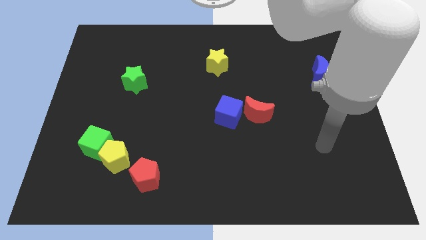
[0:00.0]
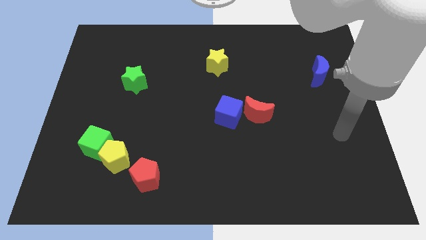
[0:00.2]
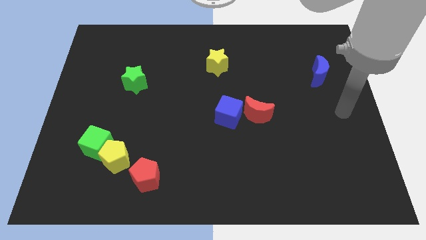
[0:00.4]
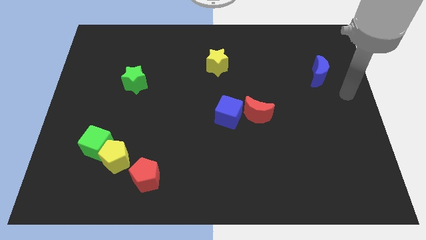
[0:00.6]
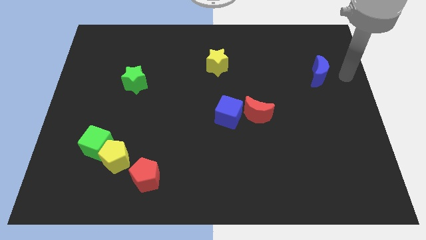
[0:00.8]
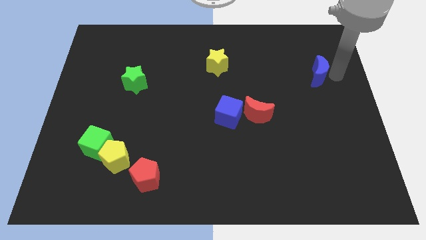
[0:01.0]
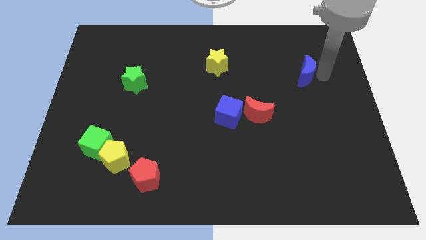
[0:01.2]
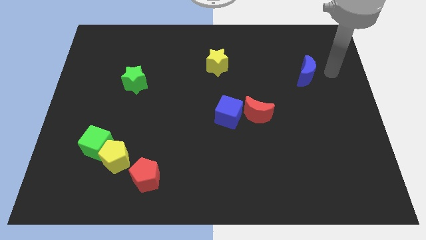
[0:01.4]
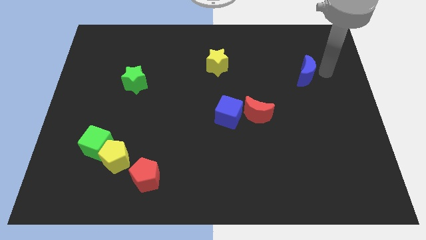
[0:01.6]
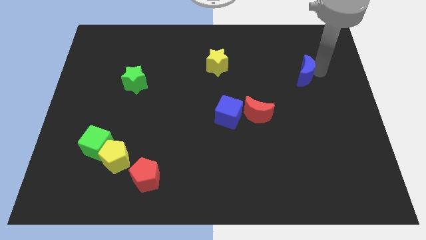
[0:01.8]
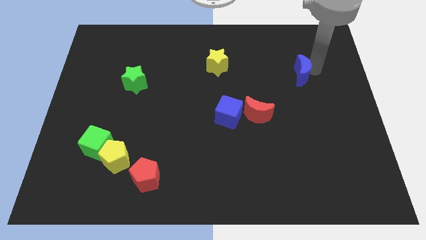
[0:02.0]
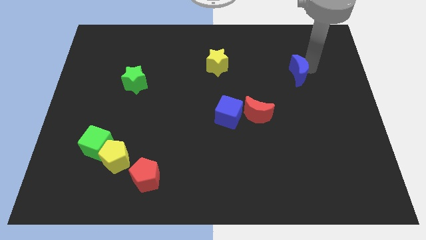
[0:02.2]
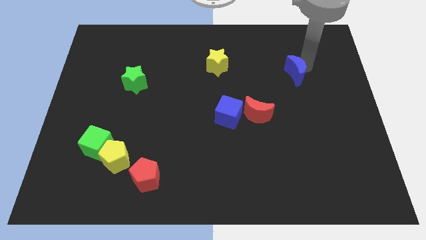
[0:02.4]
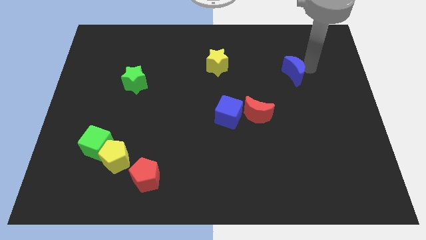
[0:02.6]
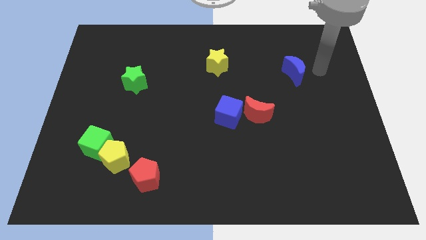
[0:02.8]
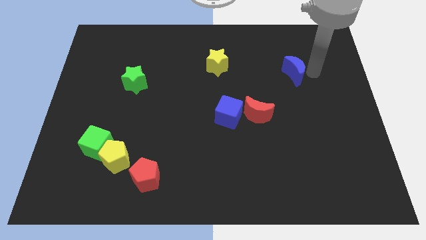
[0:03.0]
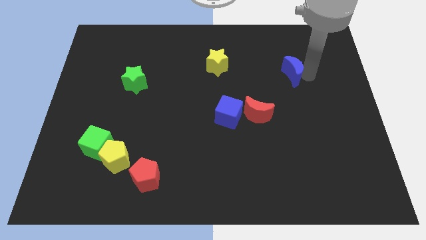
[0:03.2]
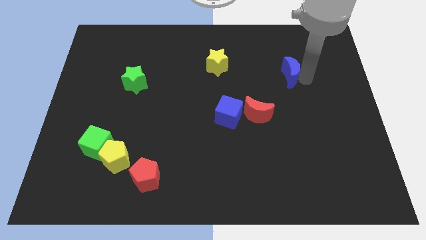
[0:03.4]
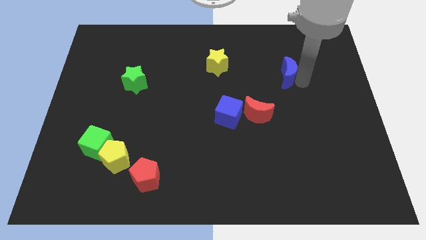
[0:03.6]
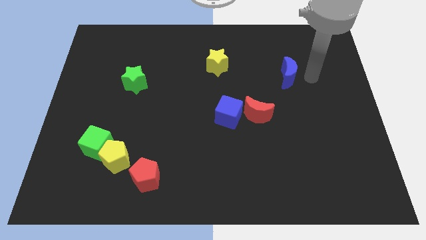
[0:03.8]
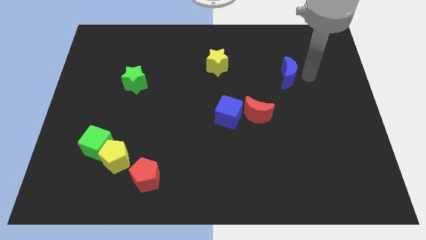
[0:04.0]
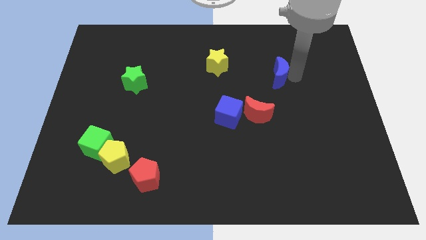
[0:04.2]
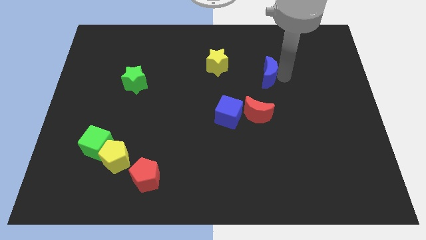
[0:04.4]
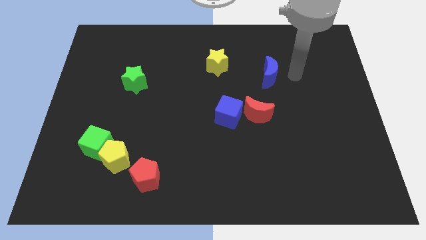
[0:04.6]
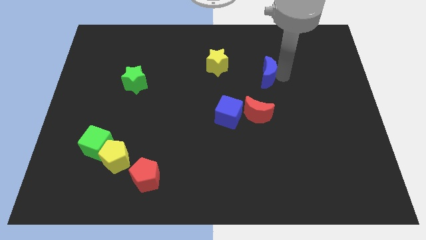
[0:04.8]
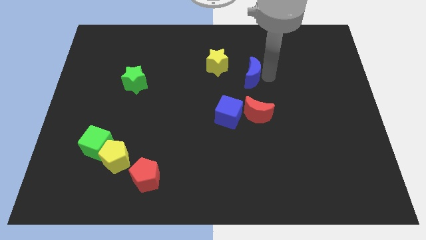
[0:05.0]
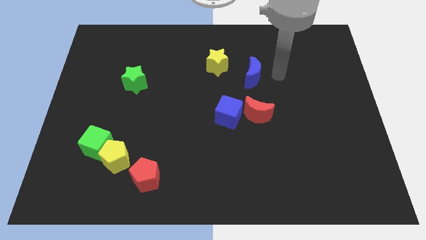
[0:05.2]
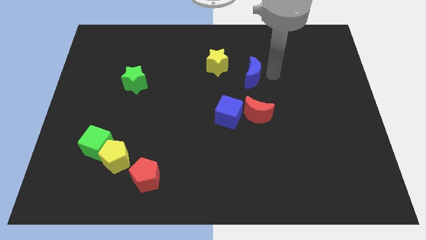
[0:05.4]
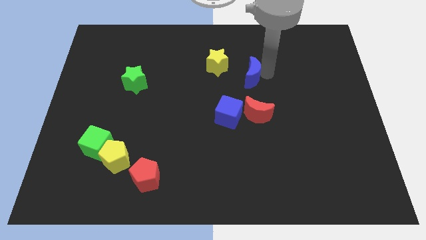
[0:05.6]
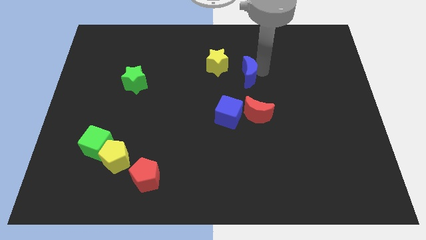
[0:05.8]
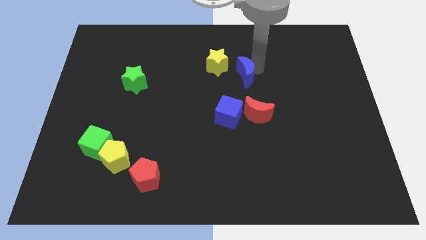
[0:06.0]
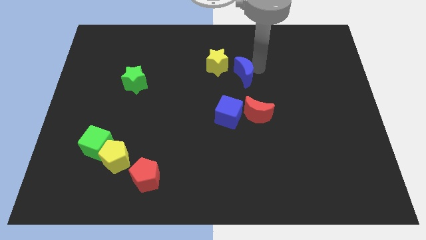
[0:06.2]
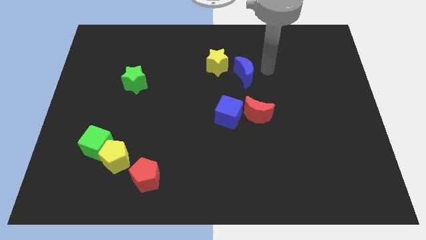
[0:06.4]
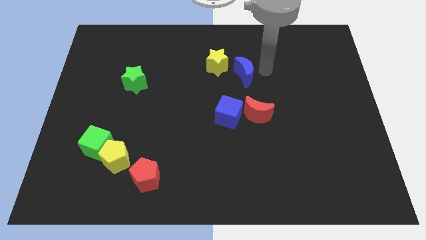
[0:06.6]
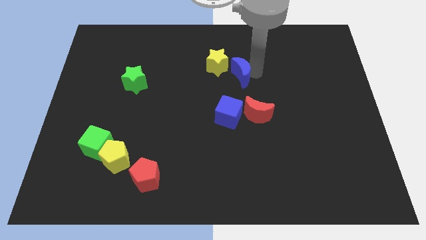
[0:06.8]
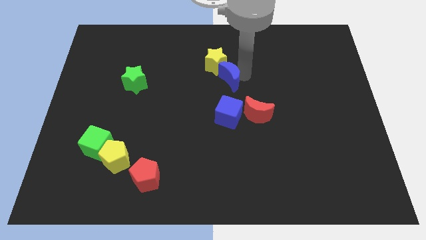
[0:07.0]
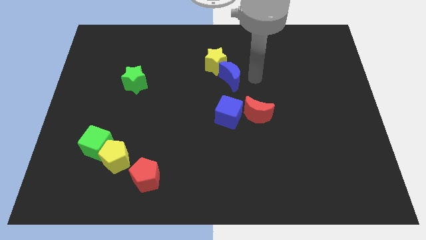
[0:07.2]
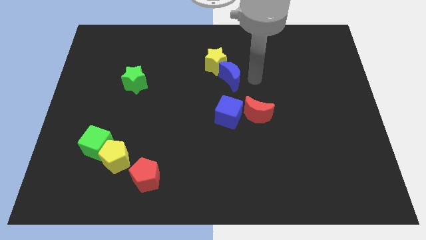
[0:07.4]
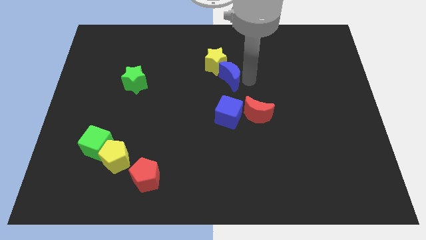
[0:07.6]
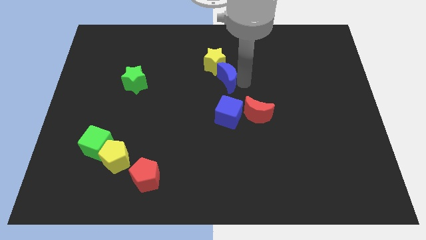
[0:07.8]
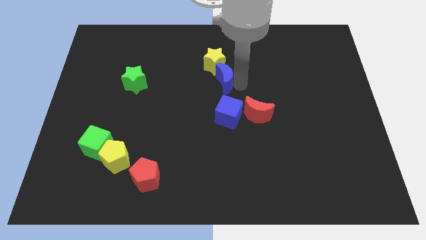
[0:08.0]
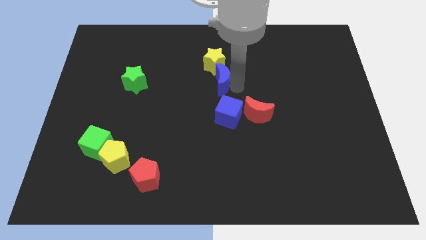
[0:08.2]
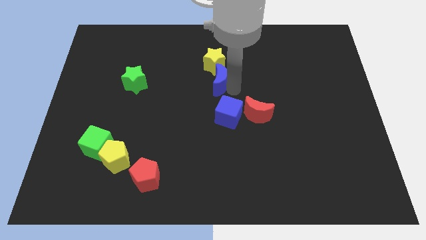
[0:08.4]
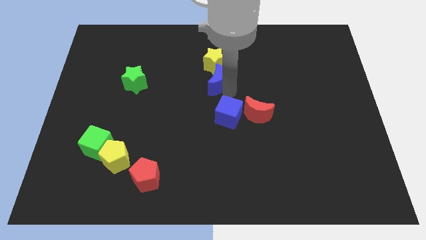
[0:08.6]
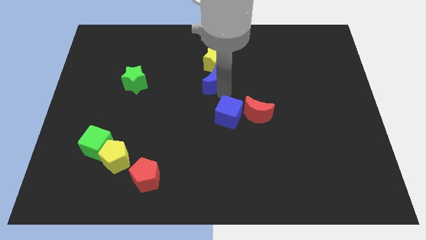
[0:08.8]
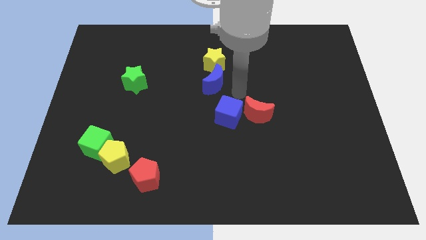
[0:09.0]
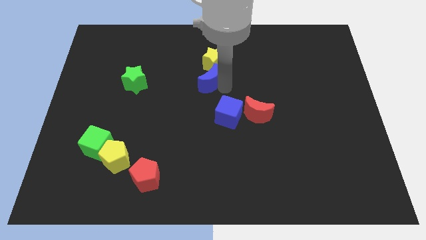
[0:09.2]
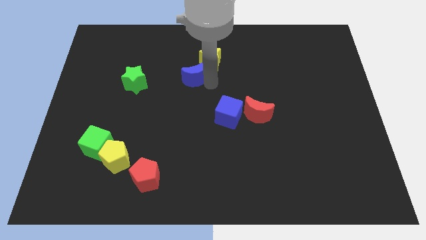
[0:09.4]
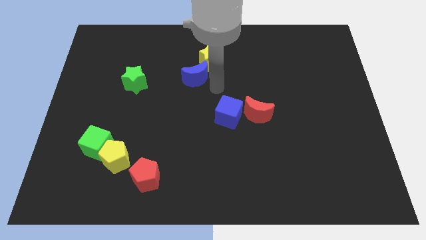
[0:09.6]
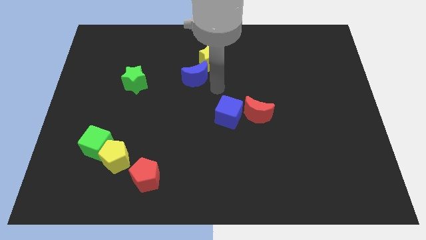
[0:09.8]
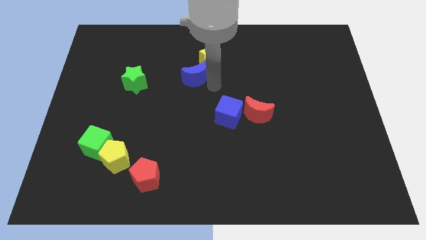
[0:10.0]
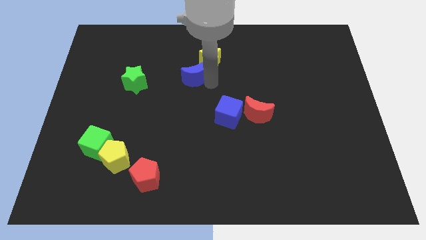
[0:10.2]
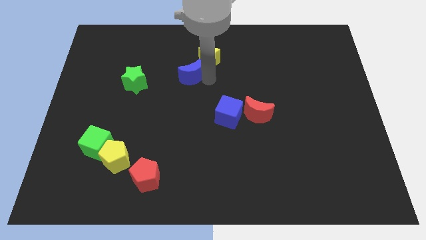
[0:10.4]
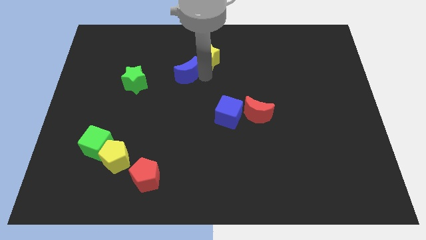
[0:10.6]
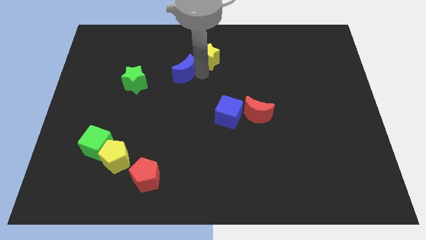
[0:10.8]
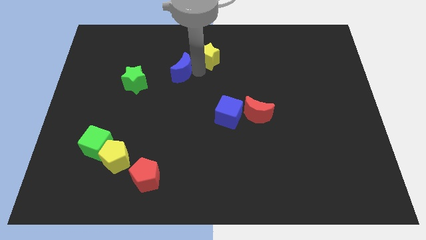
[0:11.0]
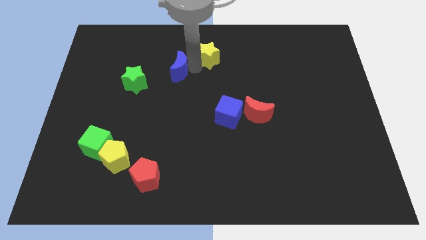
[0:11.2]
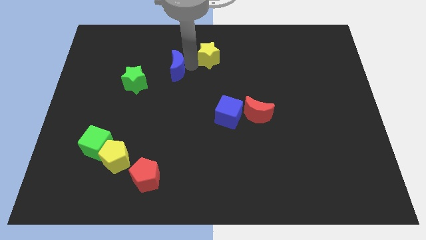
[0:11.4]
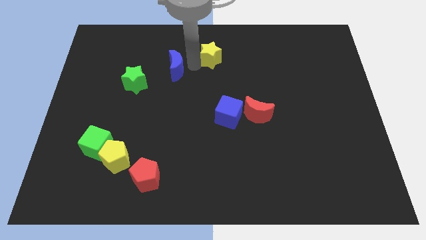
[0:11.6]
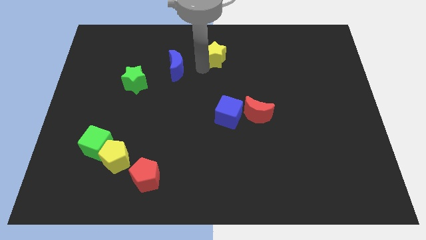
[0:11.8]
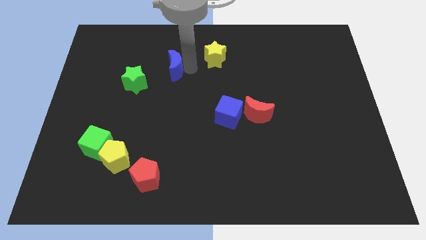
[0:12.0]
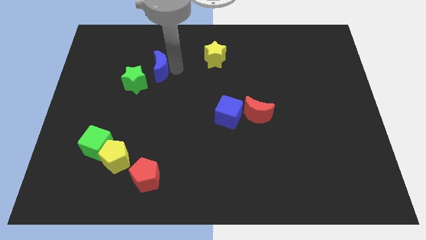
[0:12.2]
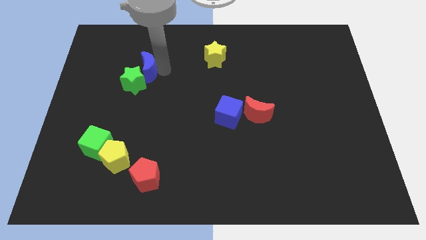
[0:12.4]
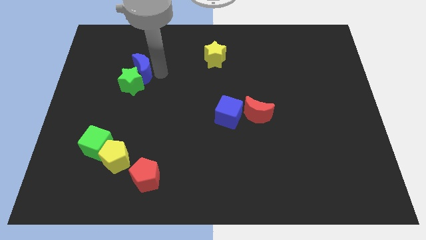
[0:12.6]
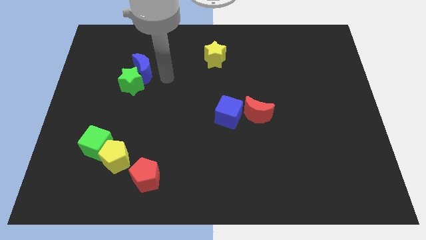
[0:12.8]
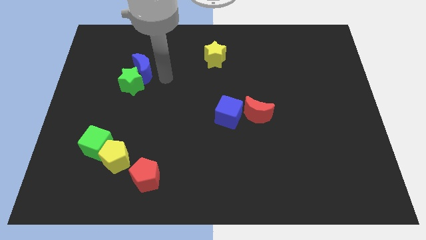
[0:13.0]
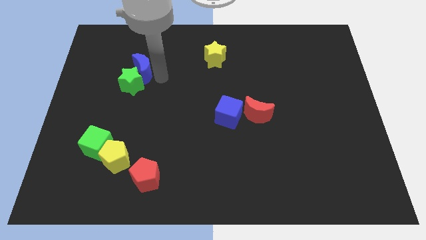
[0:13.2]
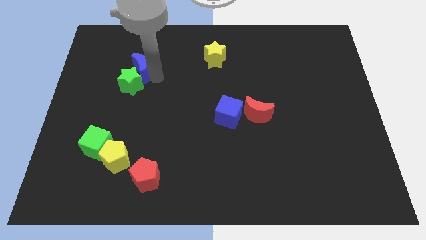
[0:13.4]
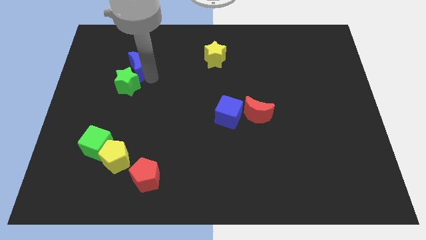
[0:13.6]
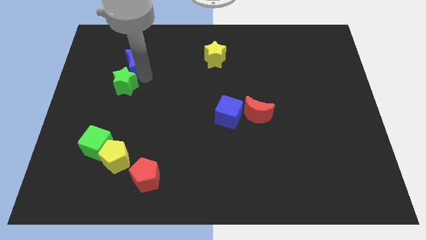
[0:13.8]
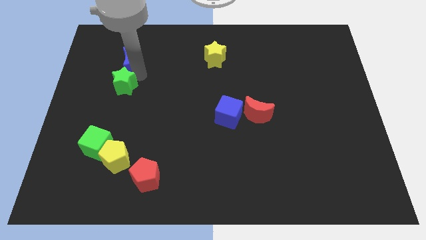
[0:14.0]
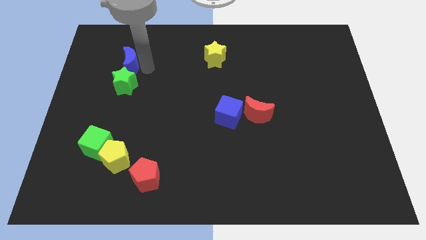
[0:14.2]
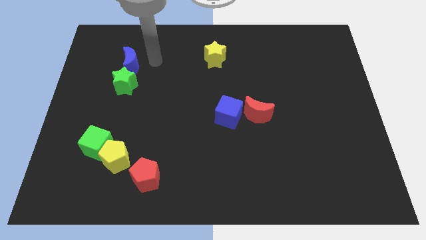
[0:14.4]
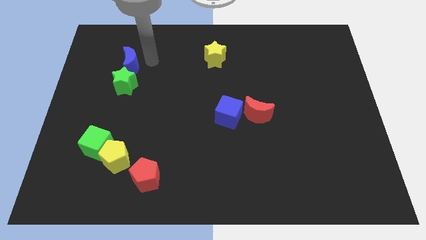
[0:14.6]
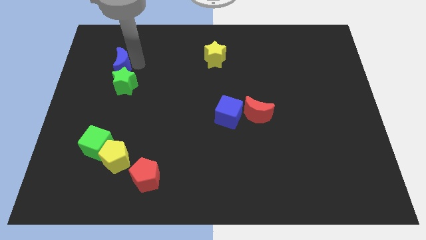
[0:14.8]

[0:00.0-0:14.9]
move the blue moon to the top left side of the green star

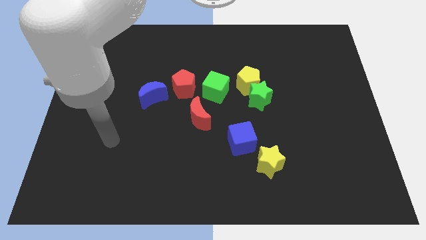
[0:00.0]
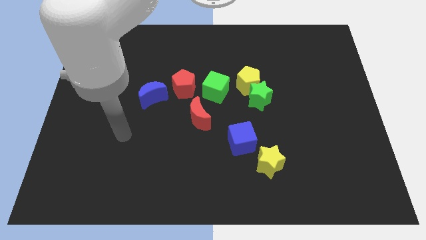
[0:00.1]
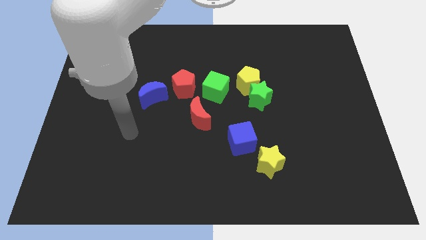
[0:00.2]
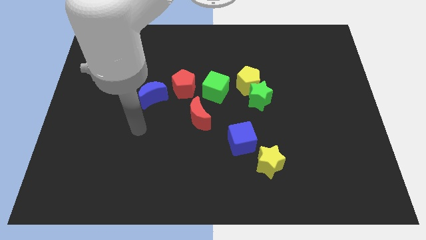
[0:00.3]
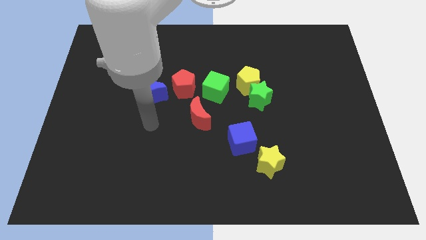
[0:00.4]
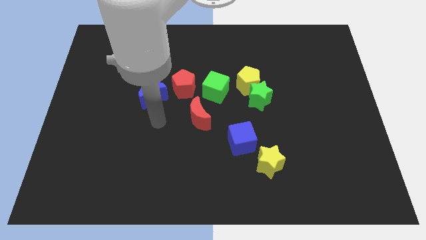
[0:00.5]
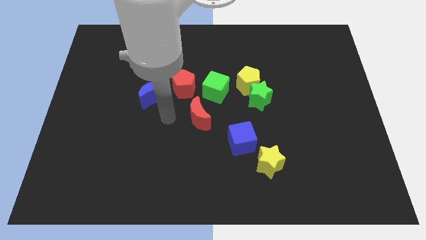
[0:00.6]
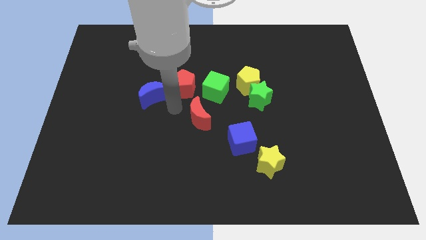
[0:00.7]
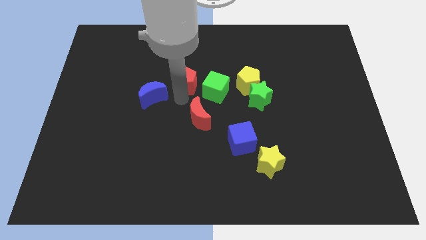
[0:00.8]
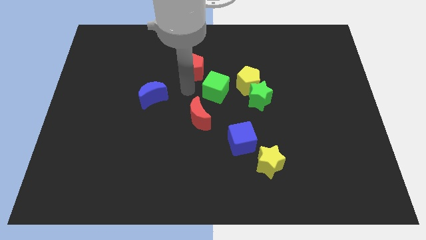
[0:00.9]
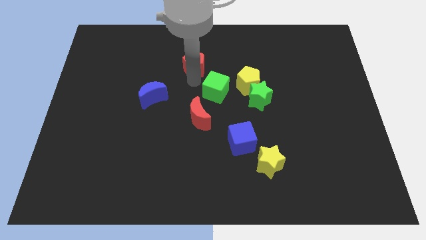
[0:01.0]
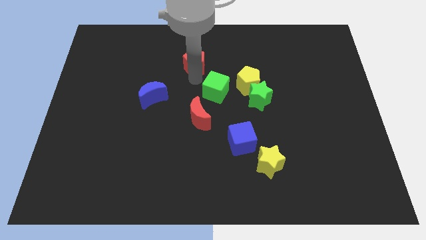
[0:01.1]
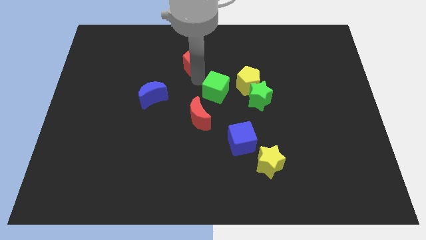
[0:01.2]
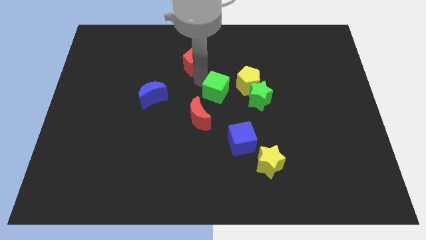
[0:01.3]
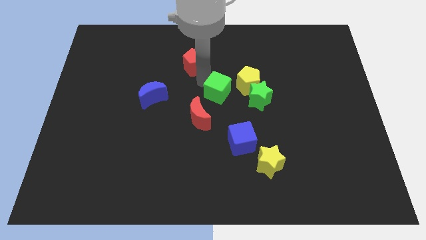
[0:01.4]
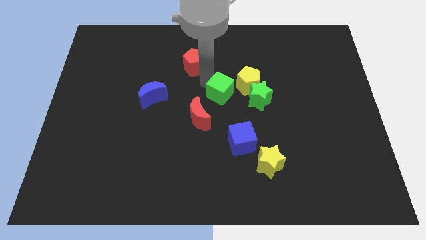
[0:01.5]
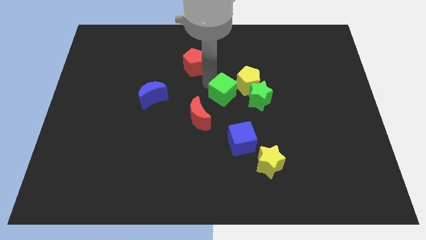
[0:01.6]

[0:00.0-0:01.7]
slide the green cube to the top of the blue cube
